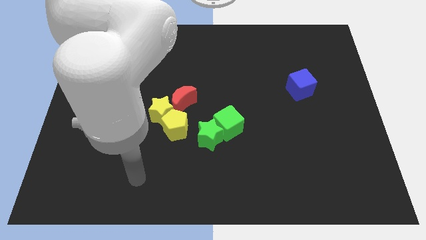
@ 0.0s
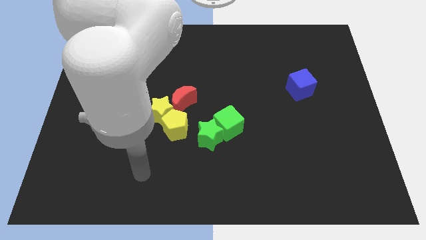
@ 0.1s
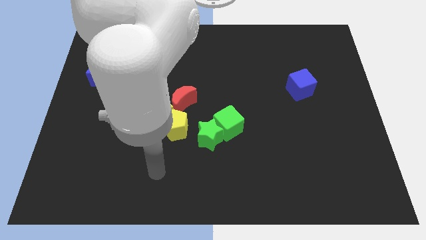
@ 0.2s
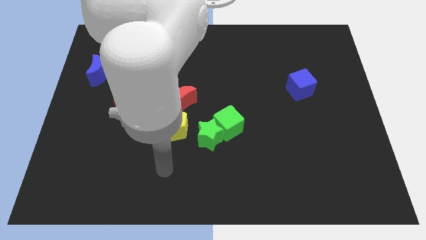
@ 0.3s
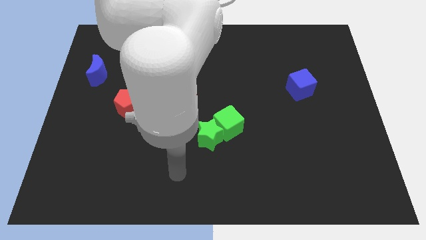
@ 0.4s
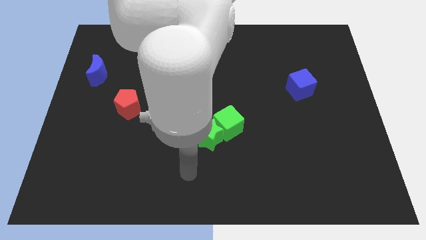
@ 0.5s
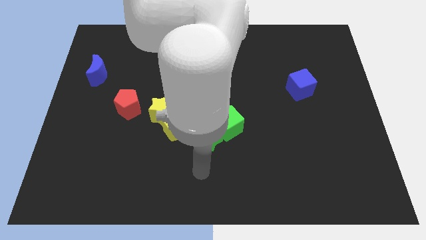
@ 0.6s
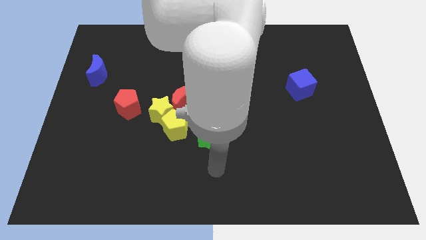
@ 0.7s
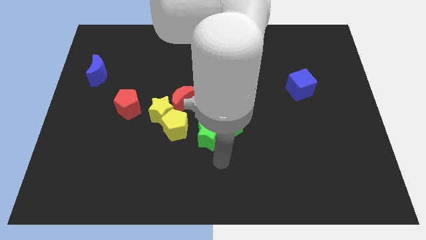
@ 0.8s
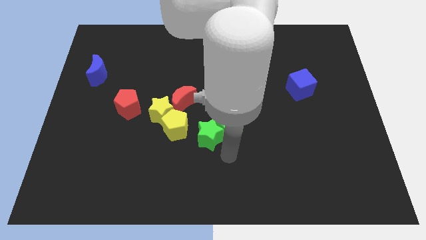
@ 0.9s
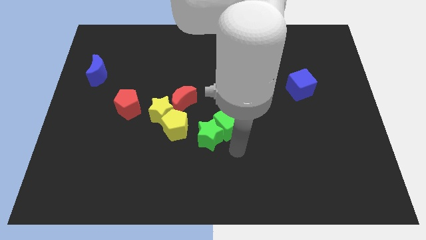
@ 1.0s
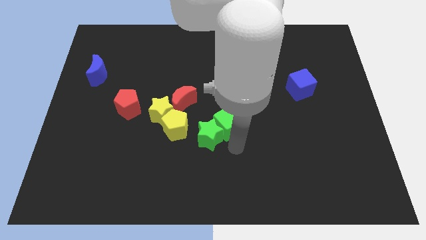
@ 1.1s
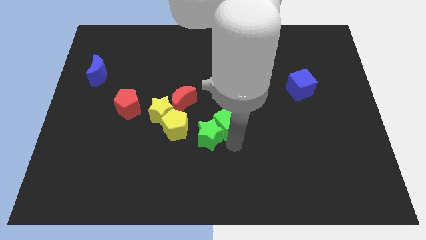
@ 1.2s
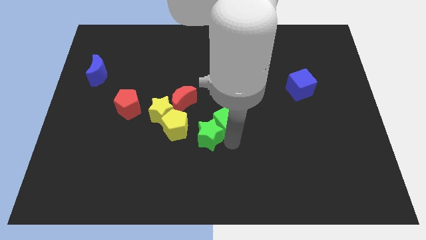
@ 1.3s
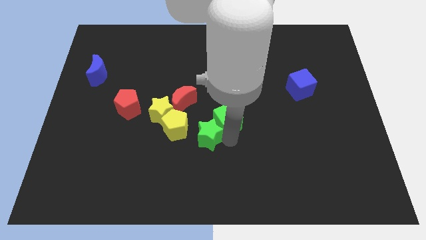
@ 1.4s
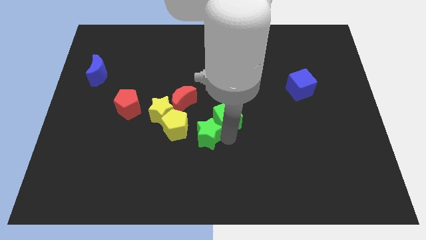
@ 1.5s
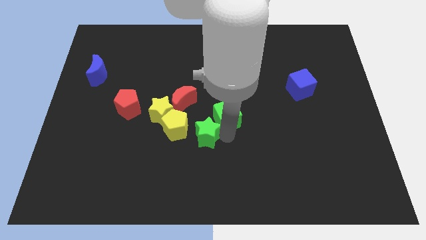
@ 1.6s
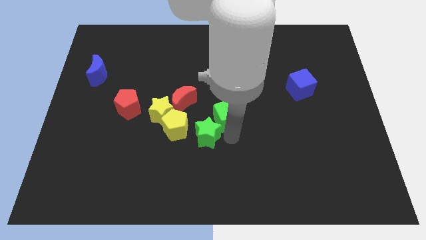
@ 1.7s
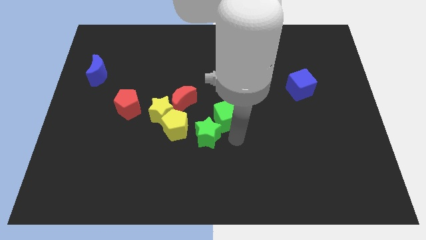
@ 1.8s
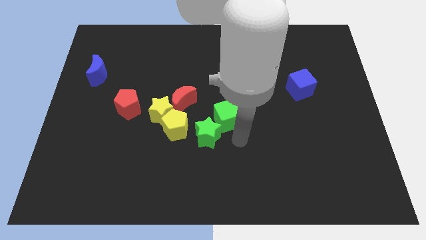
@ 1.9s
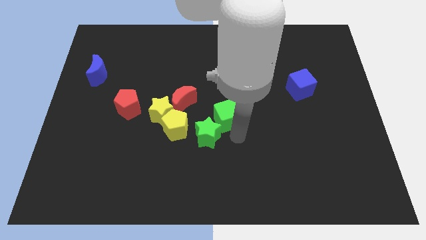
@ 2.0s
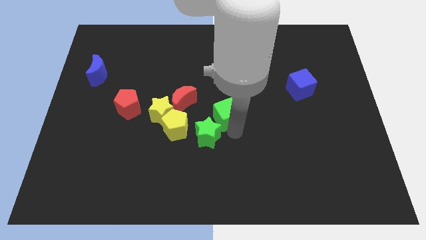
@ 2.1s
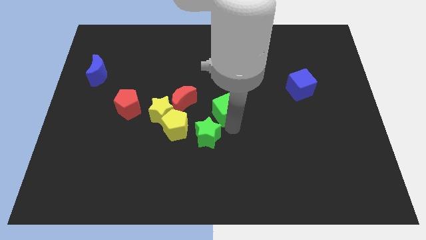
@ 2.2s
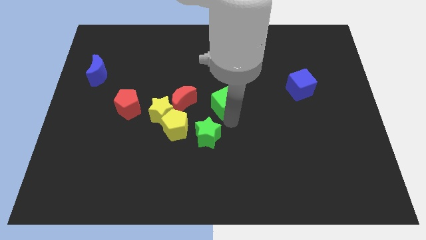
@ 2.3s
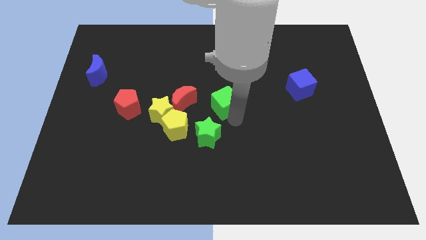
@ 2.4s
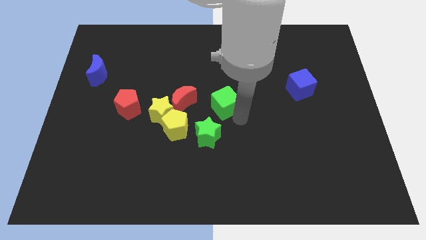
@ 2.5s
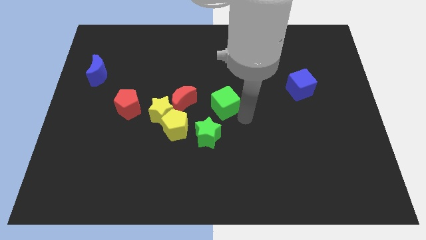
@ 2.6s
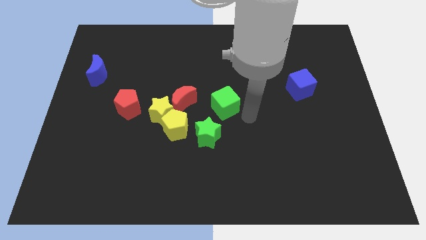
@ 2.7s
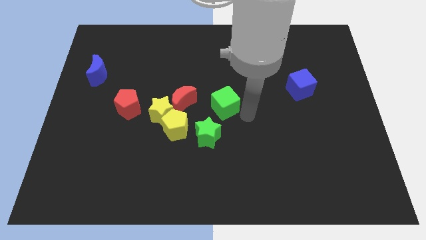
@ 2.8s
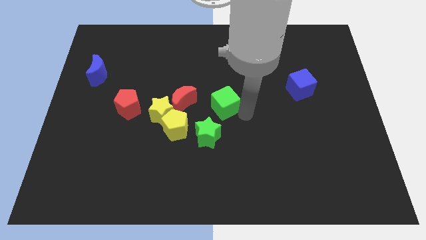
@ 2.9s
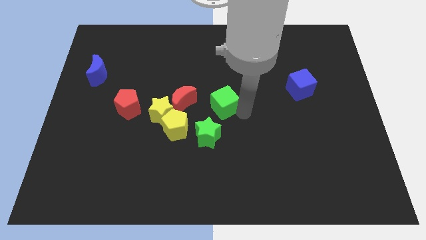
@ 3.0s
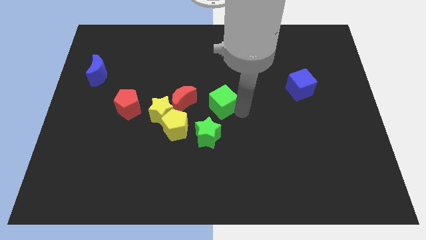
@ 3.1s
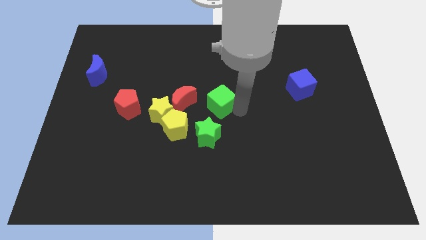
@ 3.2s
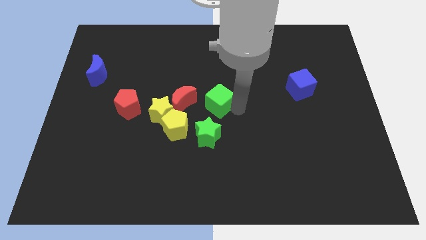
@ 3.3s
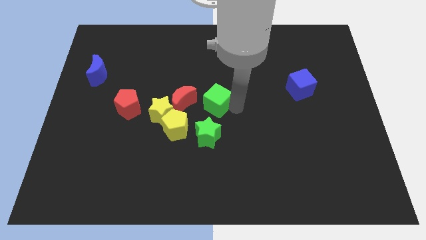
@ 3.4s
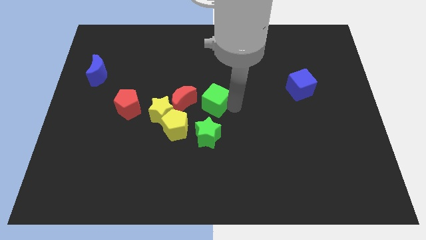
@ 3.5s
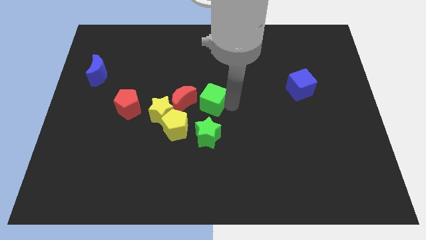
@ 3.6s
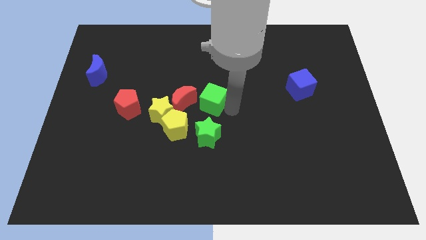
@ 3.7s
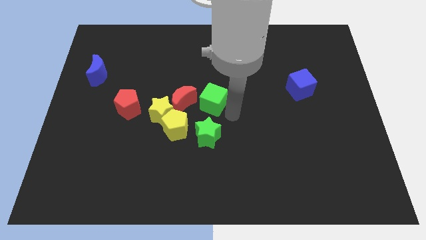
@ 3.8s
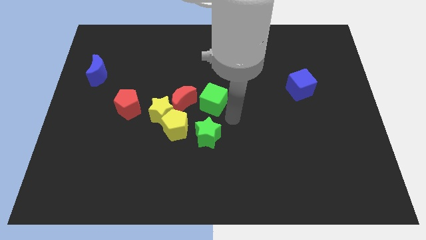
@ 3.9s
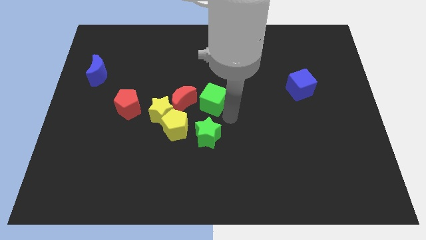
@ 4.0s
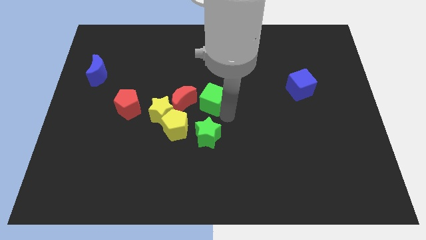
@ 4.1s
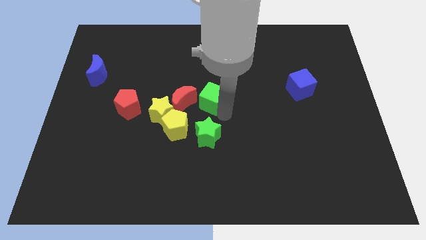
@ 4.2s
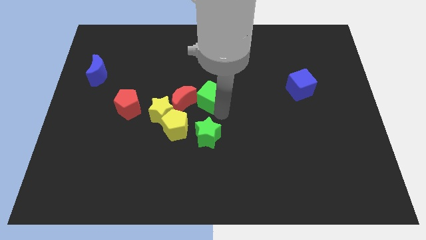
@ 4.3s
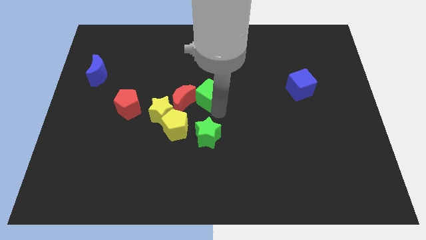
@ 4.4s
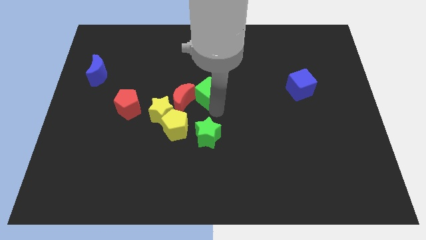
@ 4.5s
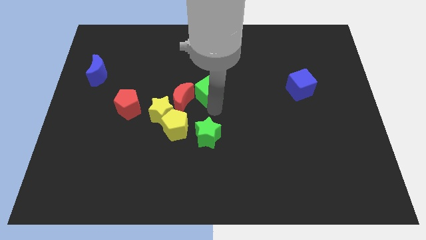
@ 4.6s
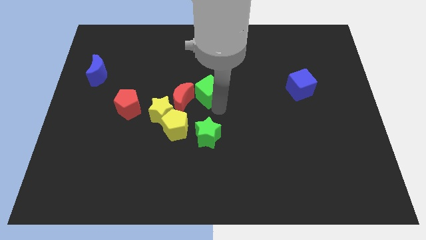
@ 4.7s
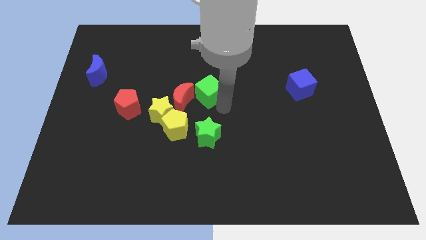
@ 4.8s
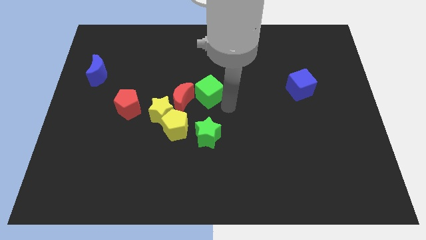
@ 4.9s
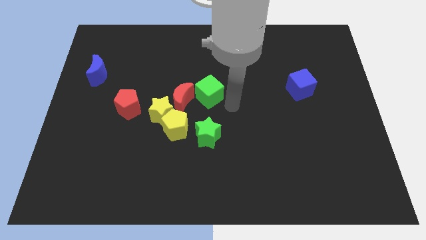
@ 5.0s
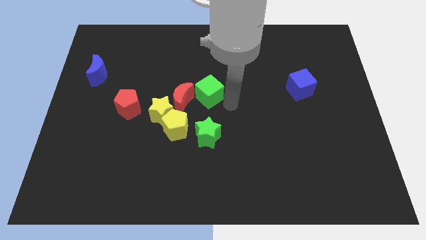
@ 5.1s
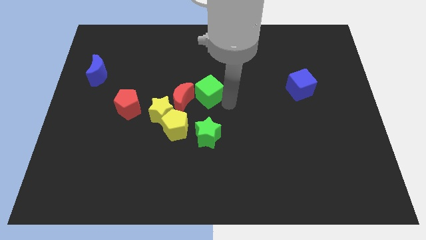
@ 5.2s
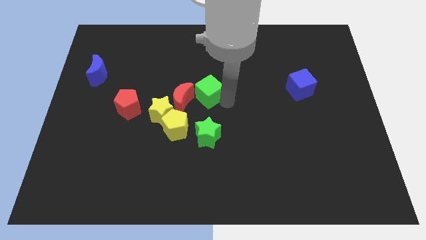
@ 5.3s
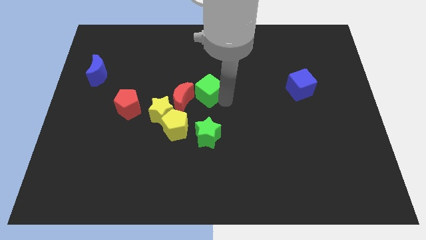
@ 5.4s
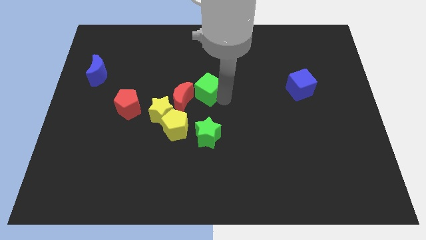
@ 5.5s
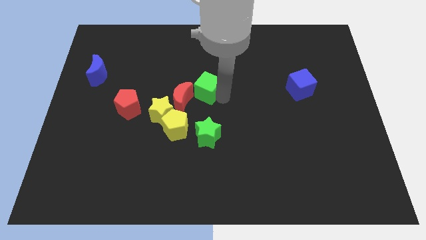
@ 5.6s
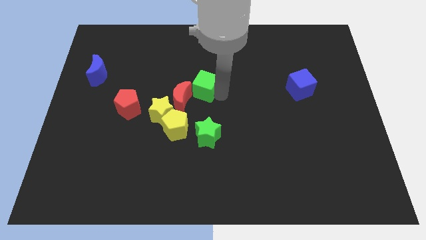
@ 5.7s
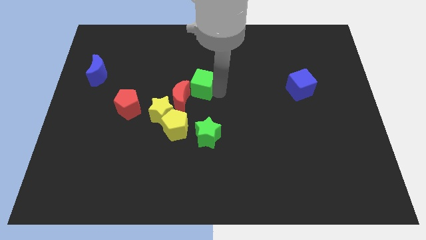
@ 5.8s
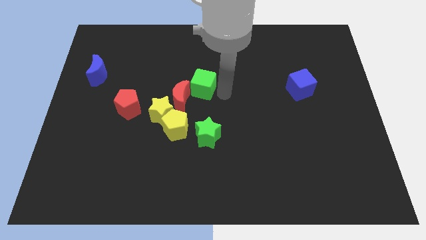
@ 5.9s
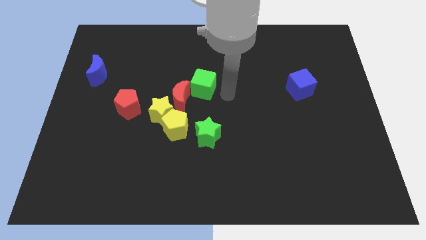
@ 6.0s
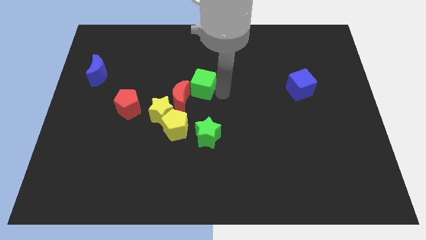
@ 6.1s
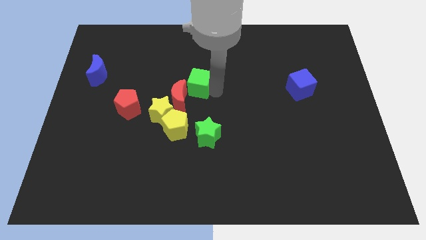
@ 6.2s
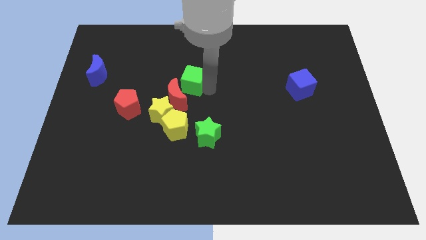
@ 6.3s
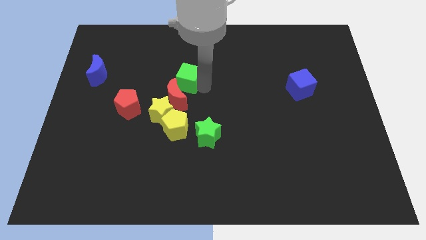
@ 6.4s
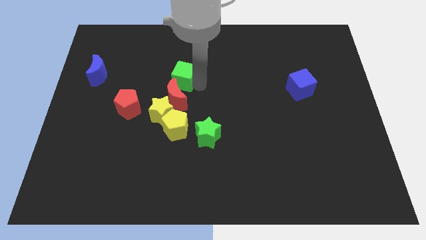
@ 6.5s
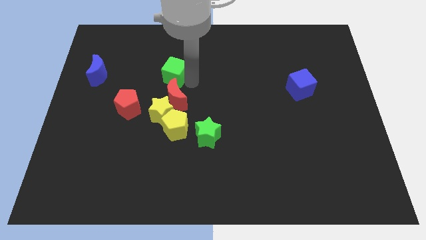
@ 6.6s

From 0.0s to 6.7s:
slide the green cube up and then to the left

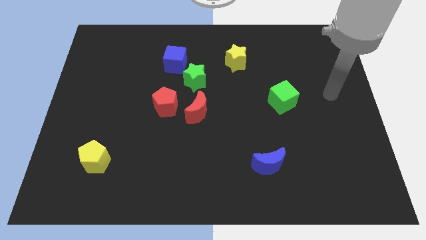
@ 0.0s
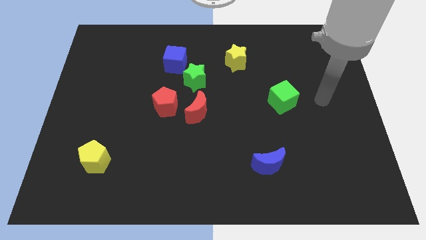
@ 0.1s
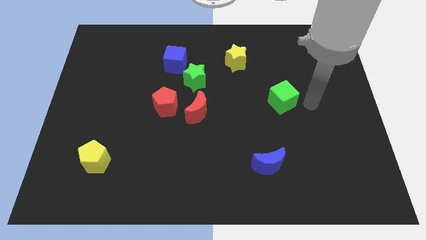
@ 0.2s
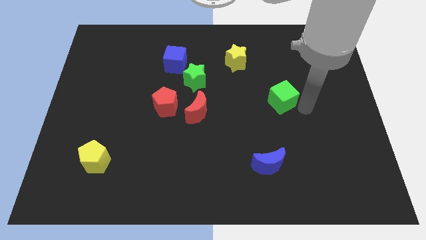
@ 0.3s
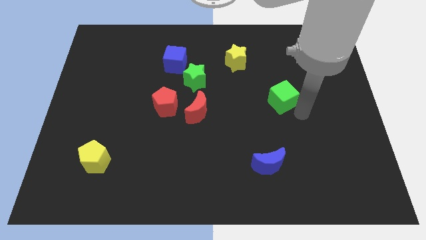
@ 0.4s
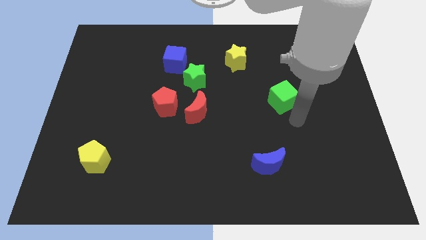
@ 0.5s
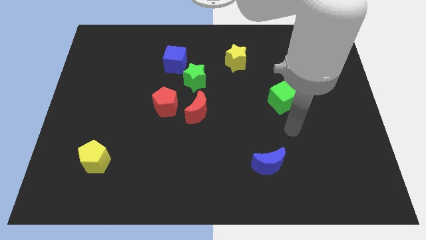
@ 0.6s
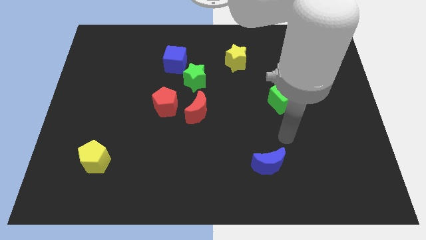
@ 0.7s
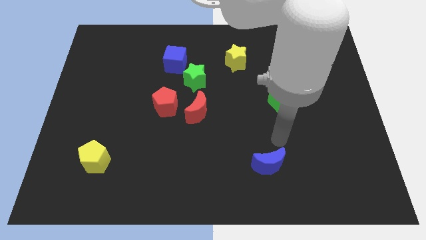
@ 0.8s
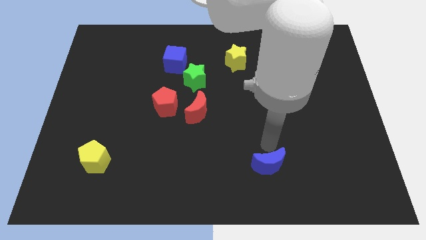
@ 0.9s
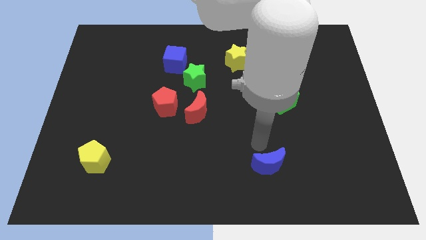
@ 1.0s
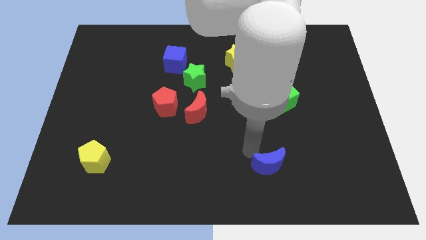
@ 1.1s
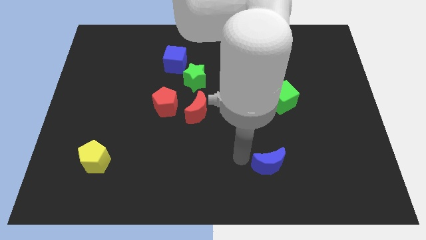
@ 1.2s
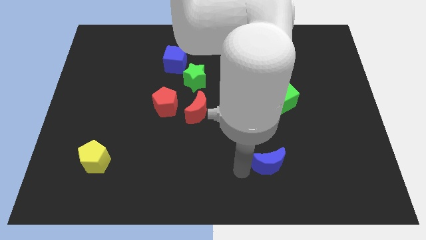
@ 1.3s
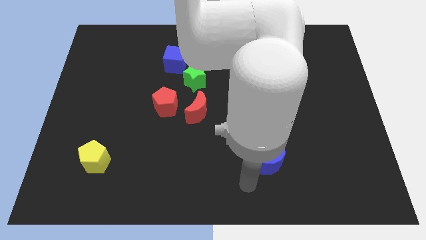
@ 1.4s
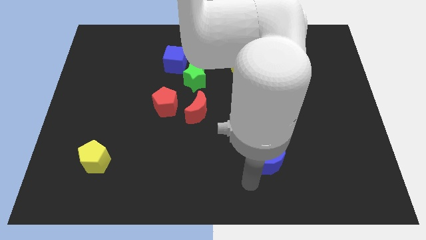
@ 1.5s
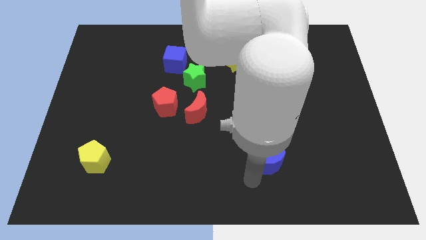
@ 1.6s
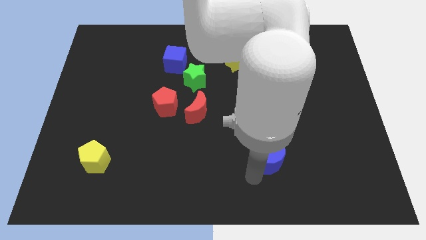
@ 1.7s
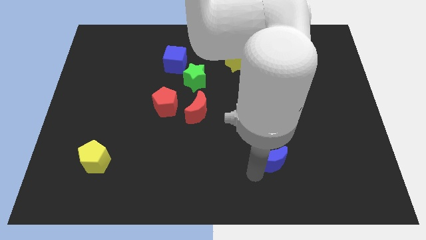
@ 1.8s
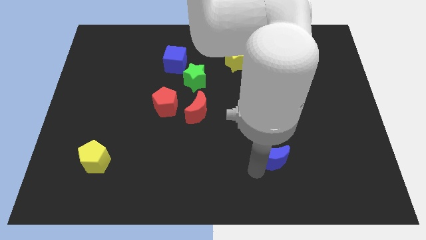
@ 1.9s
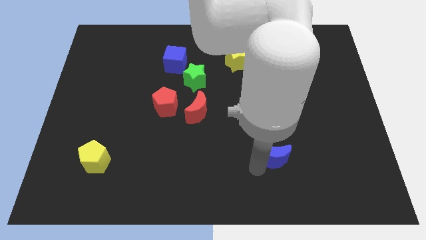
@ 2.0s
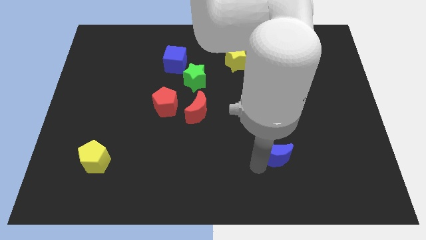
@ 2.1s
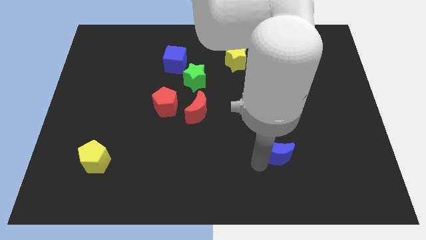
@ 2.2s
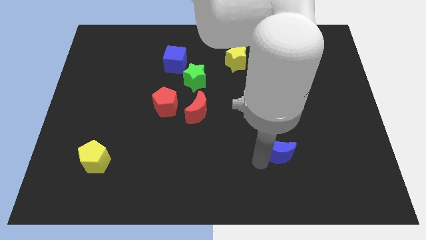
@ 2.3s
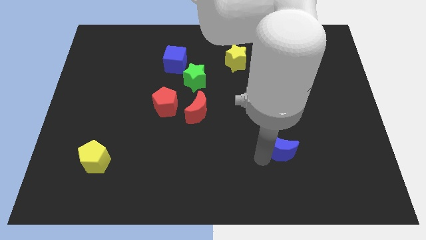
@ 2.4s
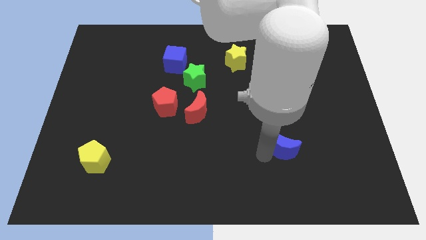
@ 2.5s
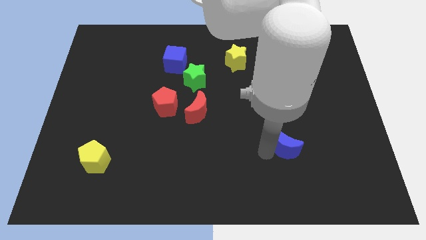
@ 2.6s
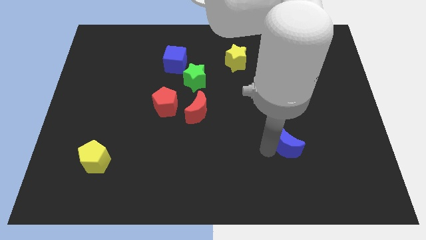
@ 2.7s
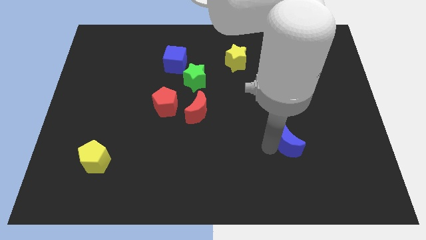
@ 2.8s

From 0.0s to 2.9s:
slide the blue moon a little bit up and to the right diagonally
